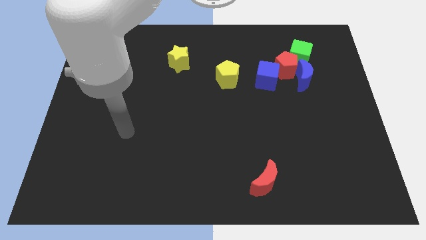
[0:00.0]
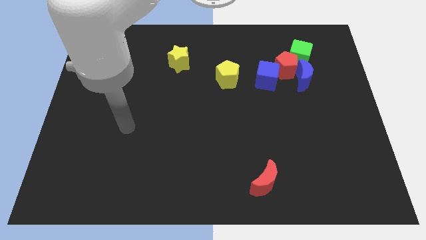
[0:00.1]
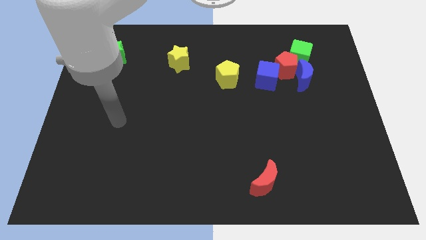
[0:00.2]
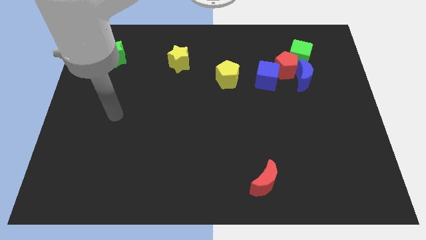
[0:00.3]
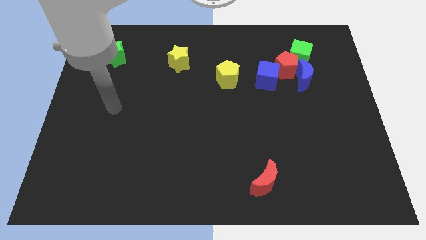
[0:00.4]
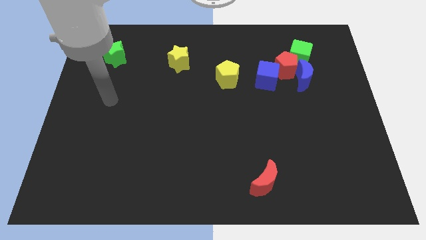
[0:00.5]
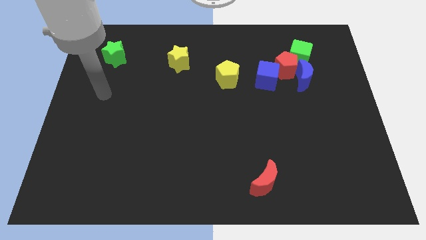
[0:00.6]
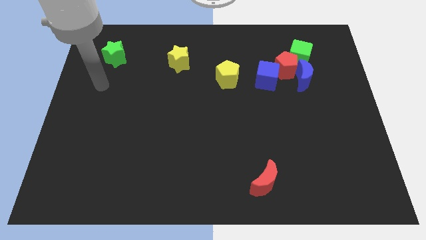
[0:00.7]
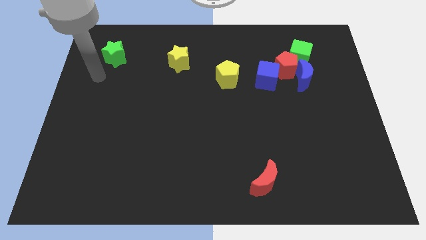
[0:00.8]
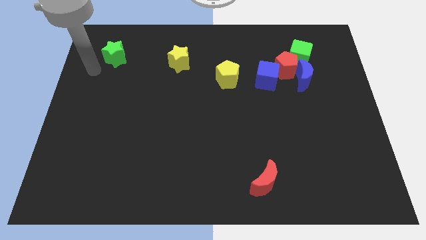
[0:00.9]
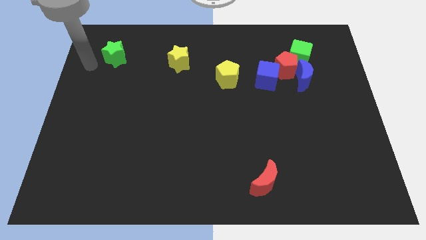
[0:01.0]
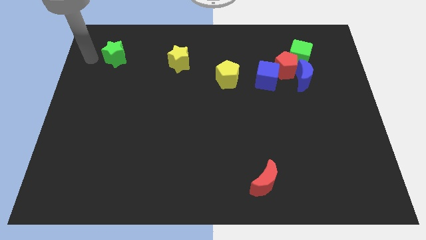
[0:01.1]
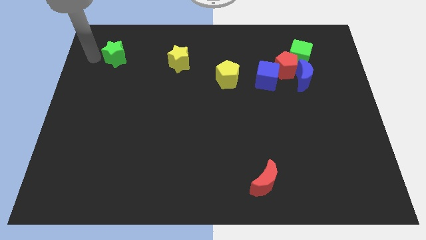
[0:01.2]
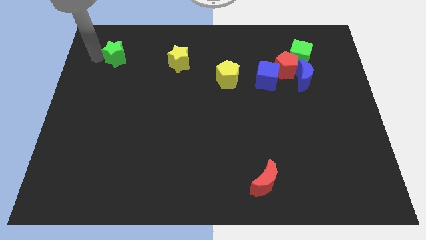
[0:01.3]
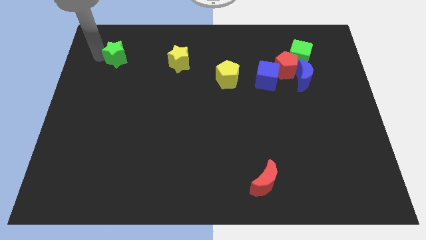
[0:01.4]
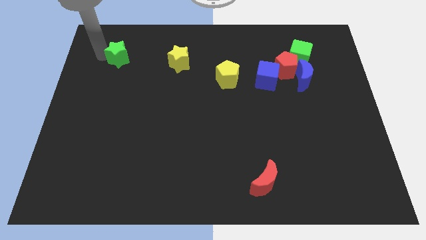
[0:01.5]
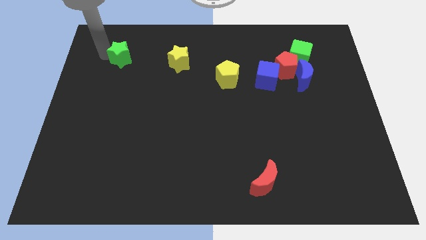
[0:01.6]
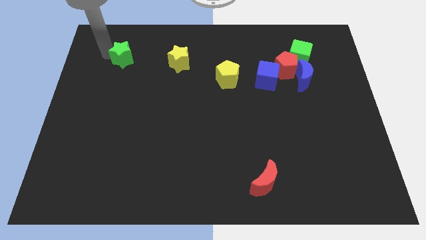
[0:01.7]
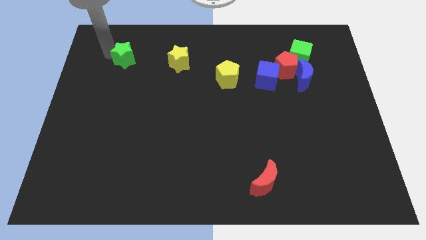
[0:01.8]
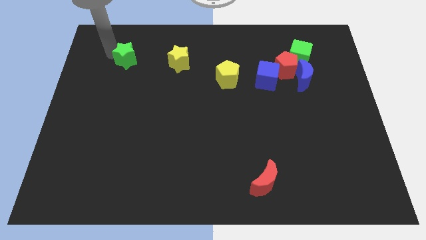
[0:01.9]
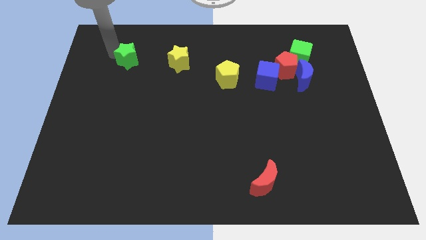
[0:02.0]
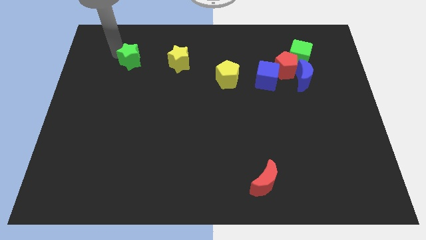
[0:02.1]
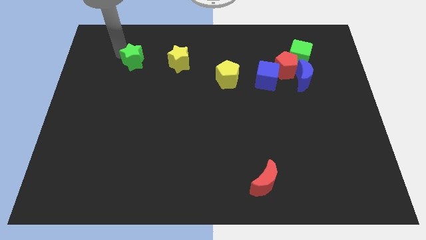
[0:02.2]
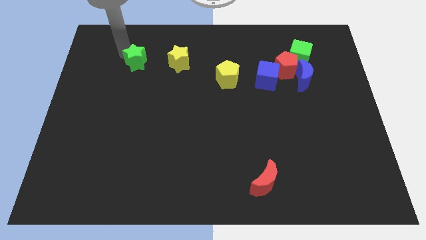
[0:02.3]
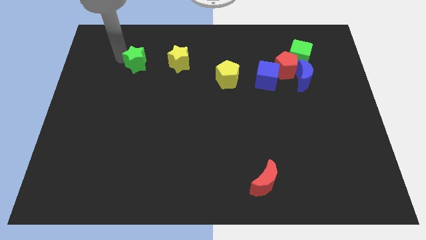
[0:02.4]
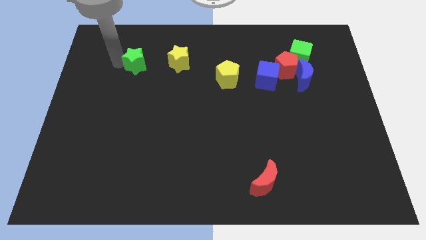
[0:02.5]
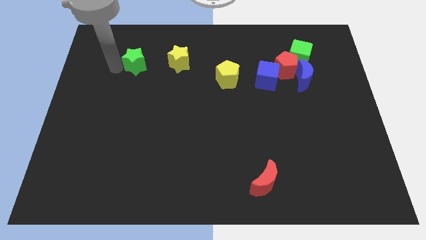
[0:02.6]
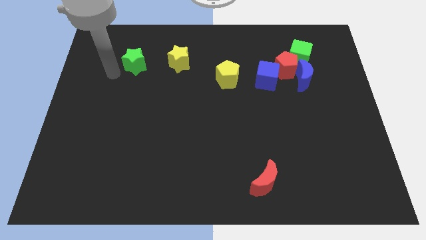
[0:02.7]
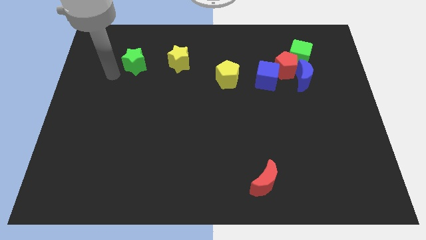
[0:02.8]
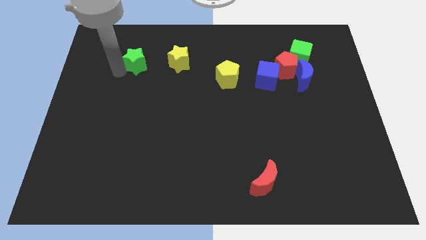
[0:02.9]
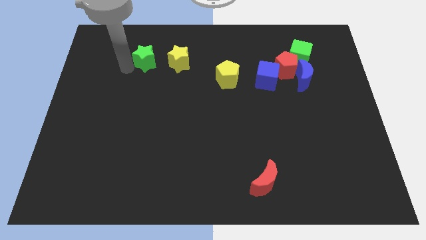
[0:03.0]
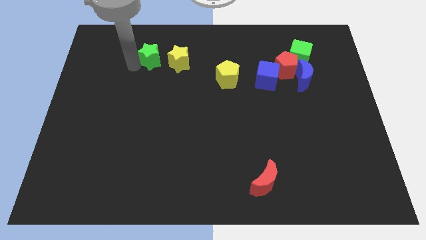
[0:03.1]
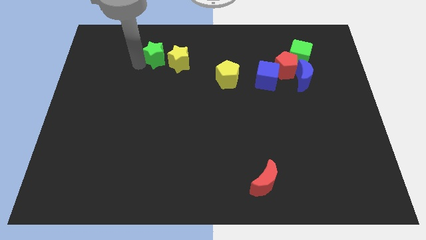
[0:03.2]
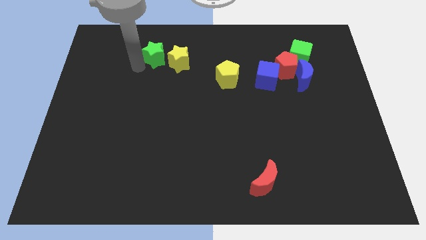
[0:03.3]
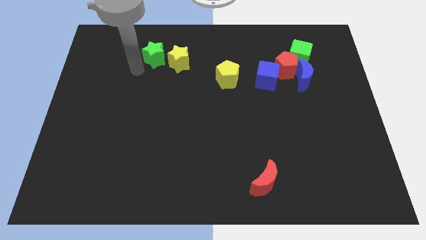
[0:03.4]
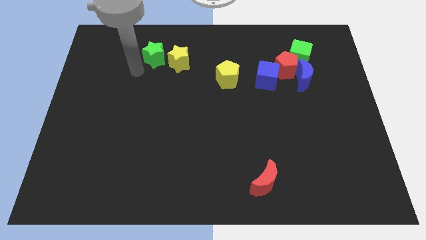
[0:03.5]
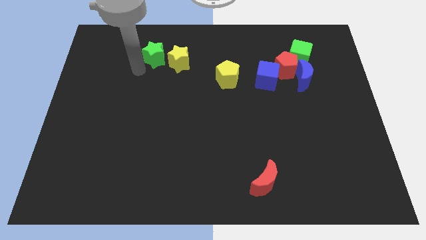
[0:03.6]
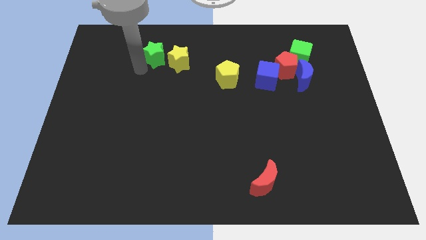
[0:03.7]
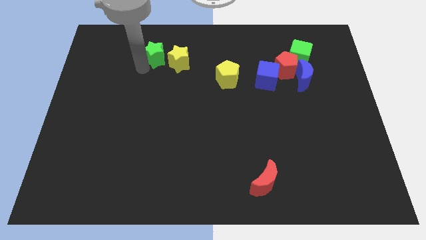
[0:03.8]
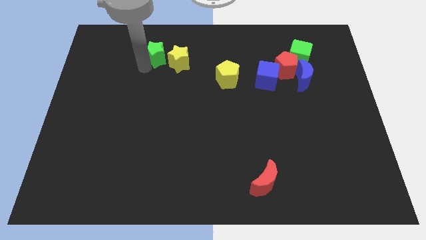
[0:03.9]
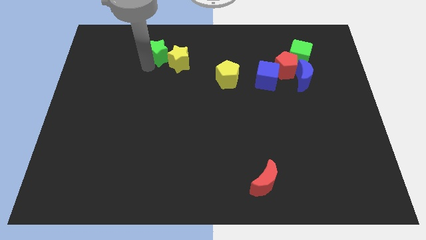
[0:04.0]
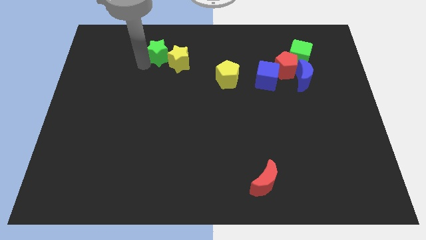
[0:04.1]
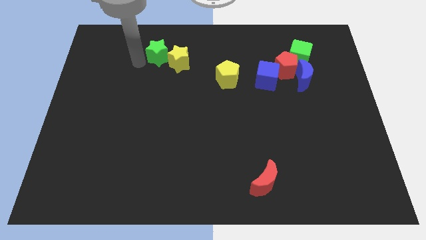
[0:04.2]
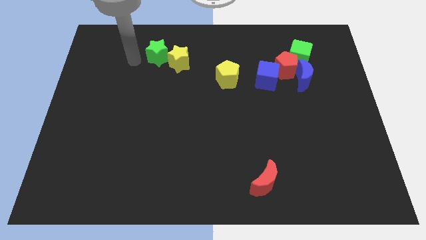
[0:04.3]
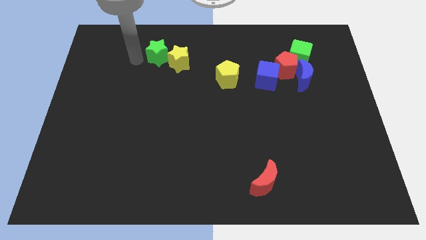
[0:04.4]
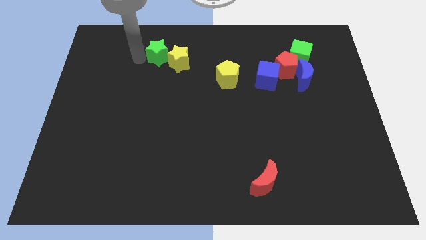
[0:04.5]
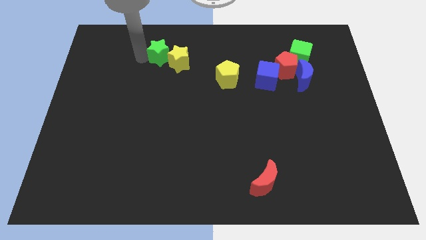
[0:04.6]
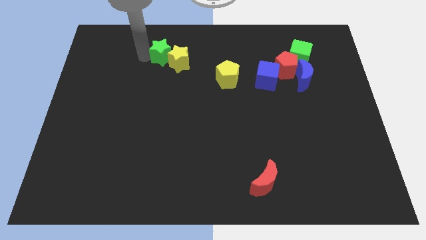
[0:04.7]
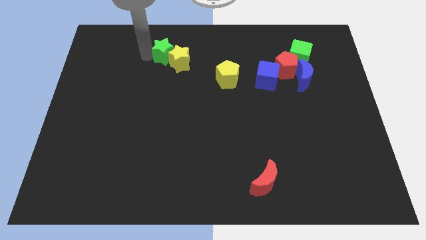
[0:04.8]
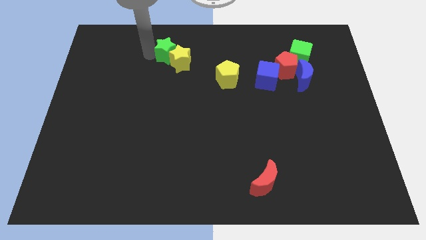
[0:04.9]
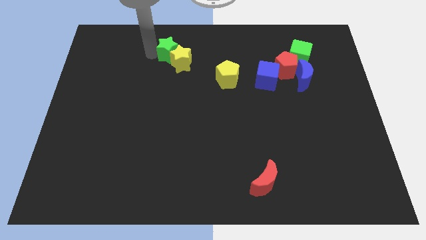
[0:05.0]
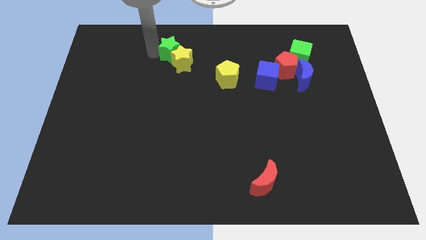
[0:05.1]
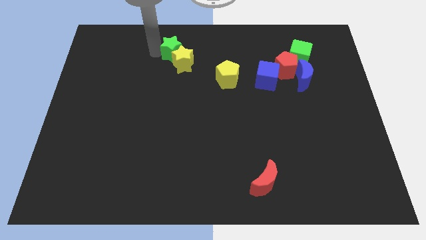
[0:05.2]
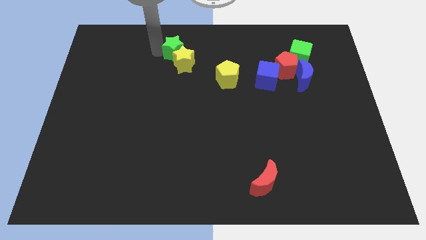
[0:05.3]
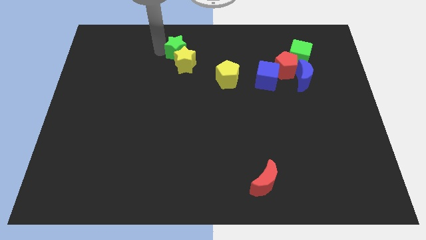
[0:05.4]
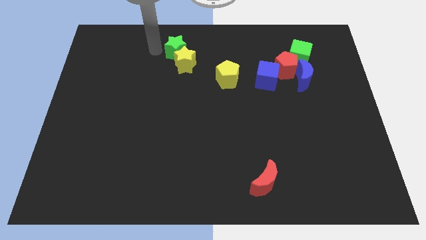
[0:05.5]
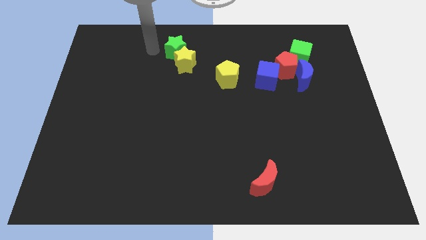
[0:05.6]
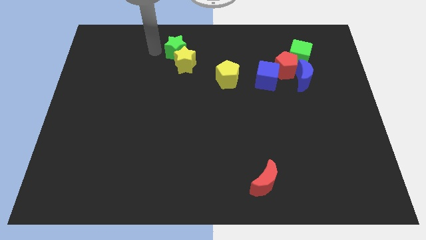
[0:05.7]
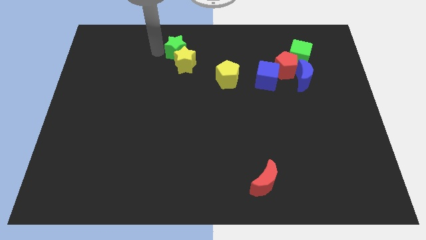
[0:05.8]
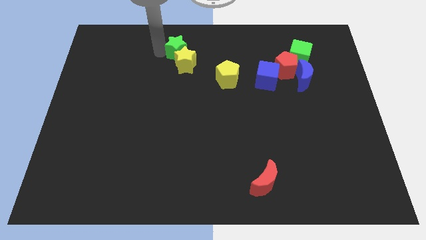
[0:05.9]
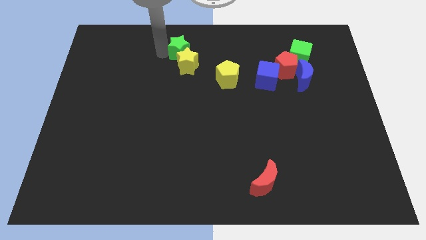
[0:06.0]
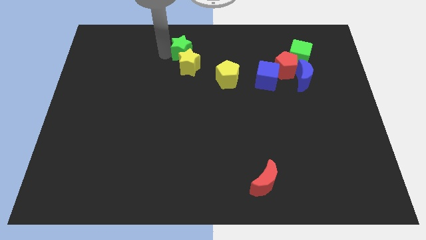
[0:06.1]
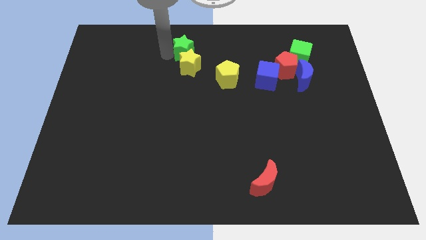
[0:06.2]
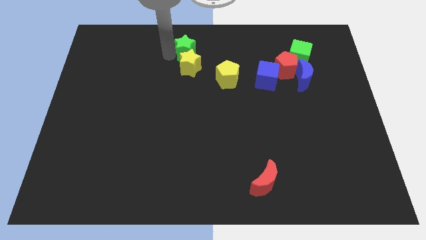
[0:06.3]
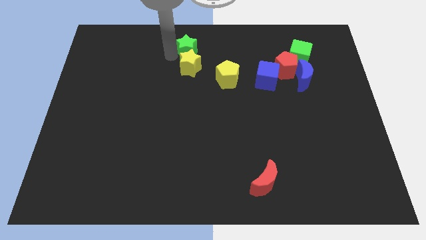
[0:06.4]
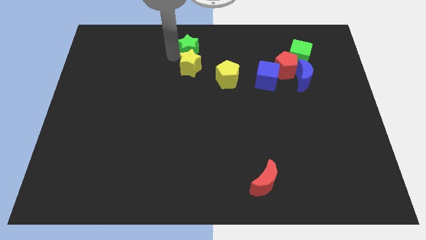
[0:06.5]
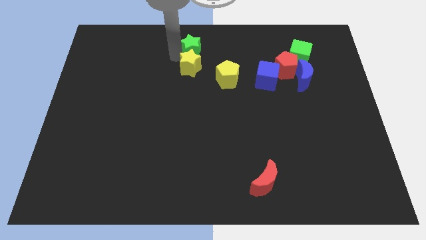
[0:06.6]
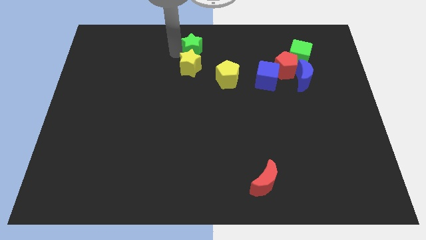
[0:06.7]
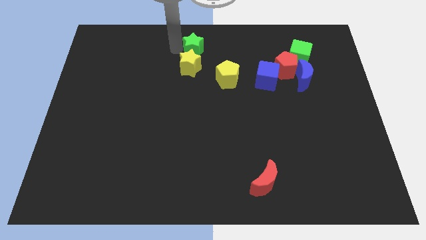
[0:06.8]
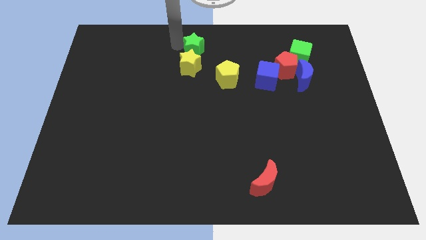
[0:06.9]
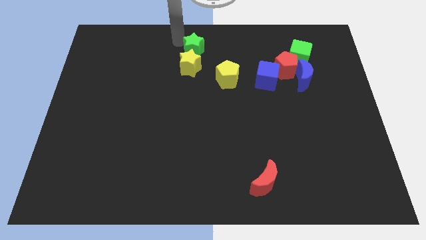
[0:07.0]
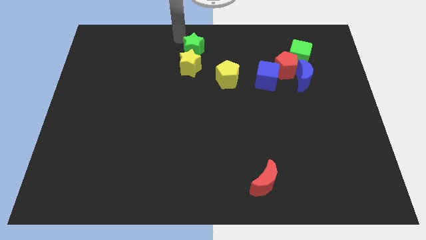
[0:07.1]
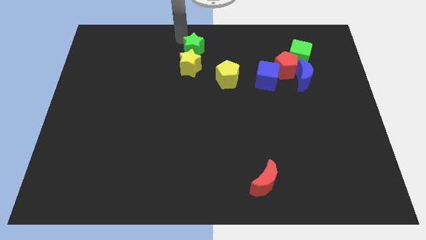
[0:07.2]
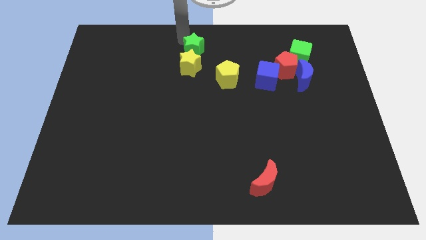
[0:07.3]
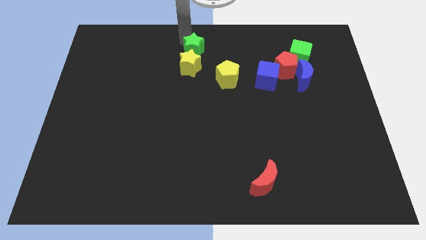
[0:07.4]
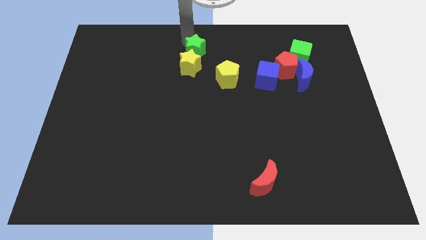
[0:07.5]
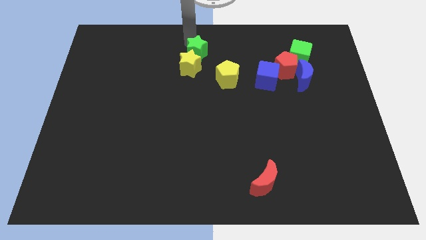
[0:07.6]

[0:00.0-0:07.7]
move the green star diagonally up and to the left of the yellow pentagon
